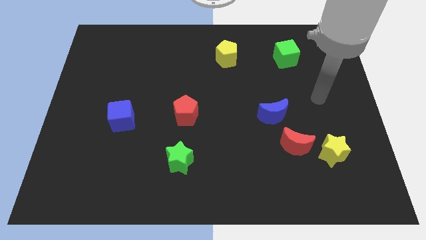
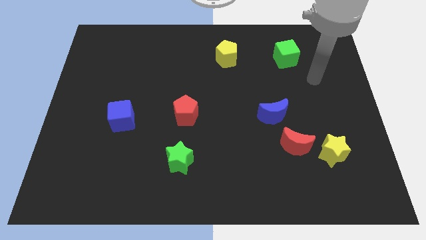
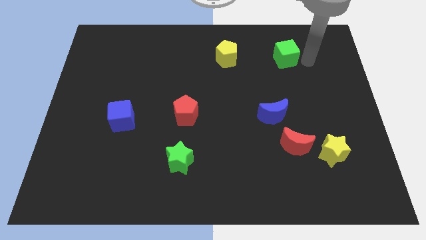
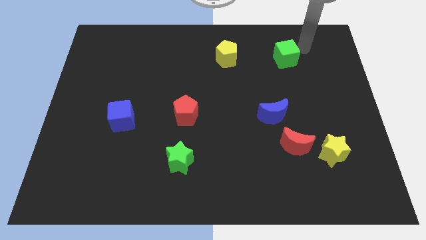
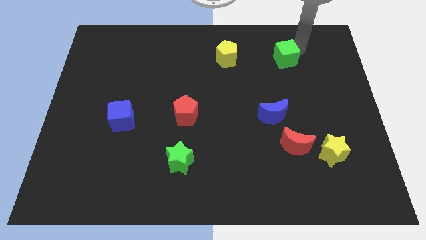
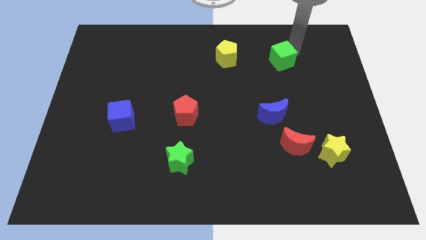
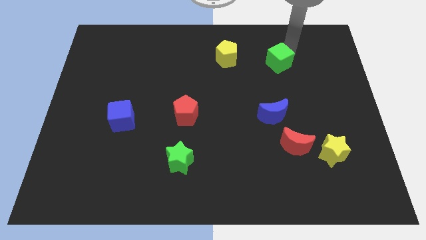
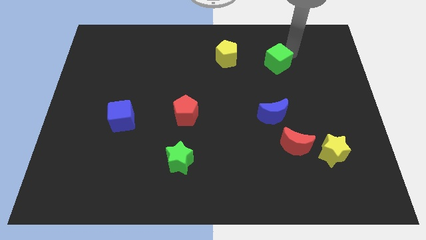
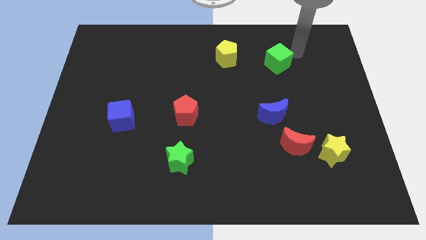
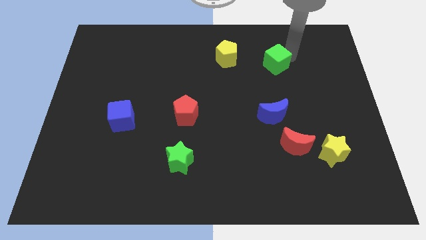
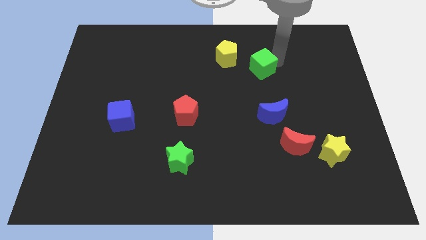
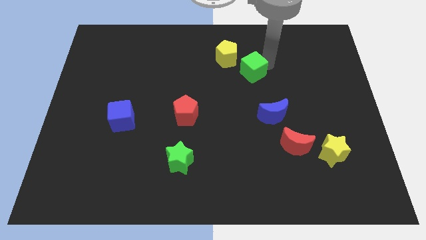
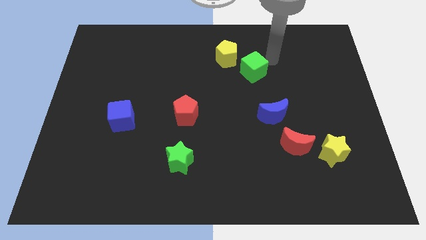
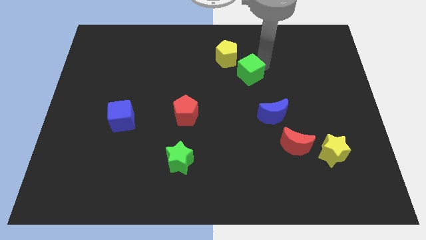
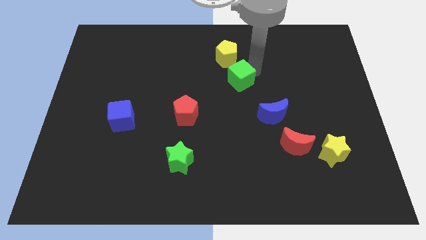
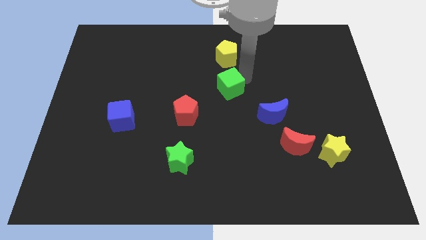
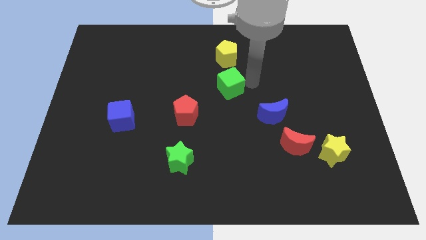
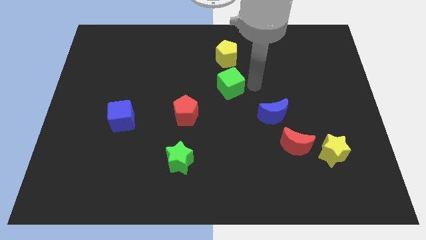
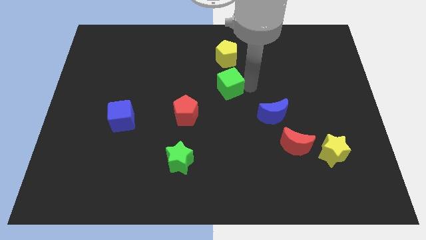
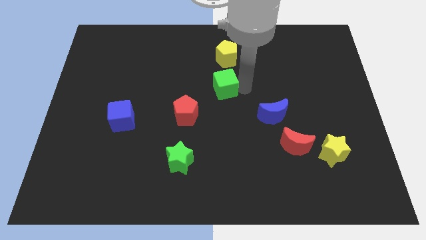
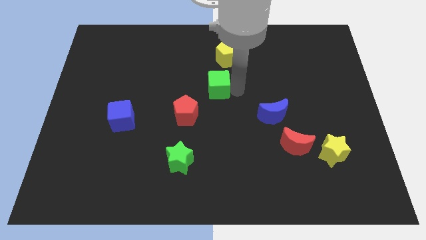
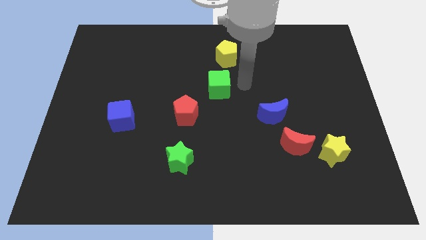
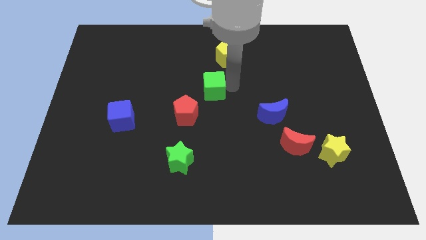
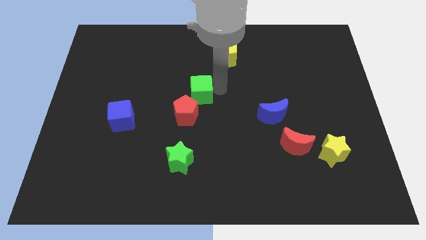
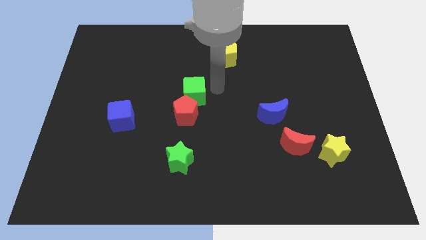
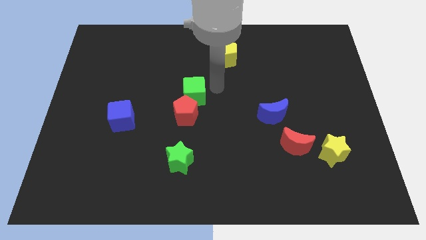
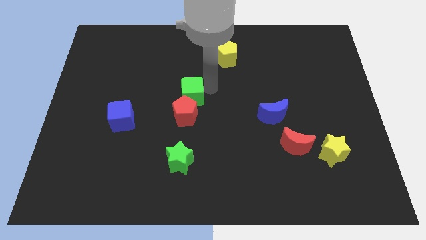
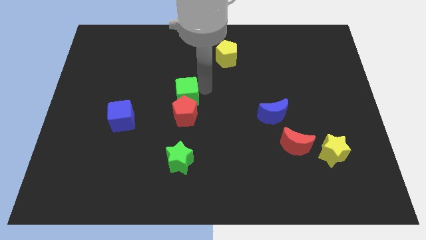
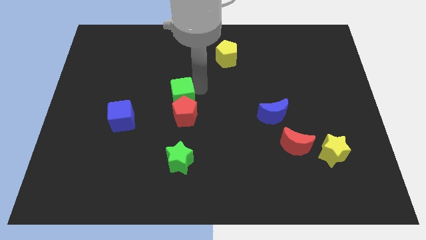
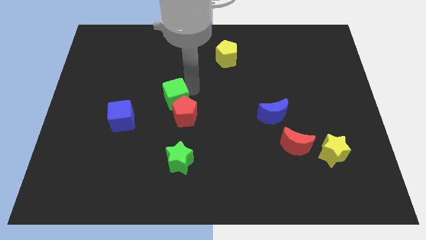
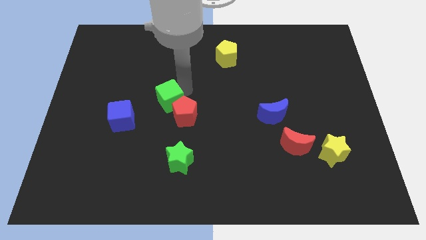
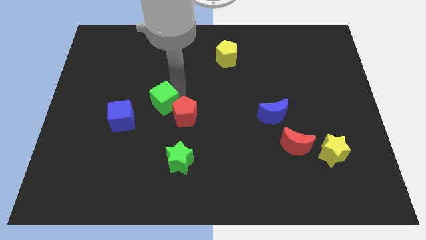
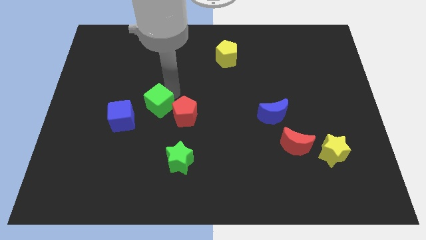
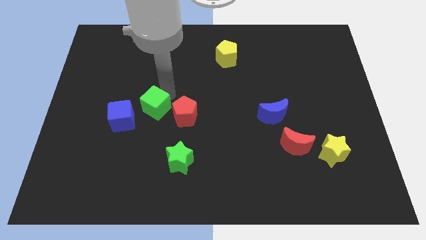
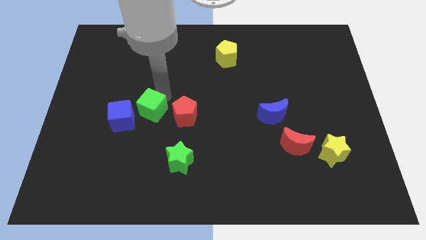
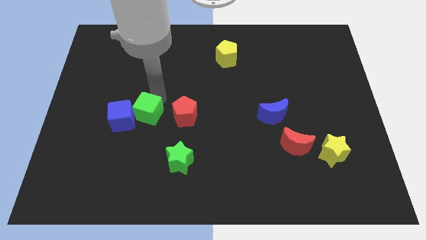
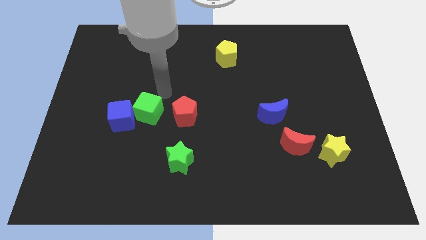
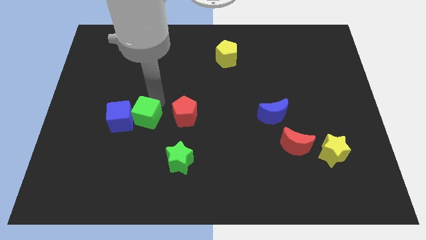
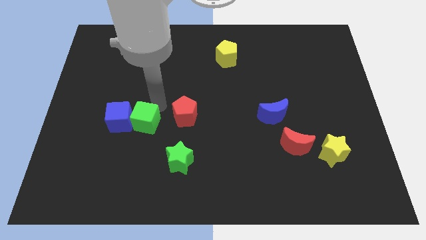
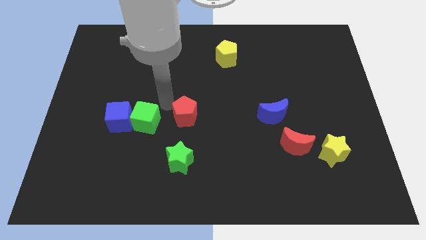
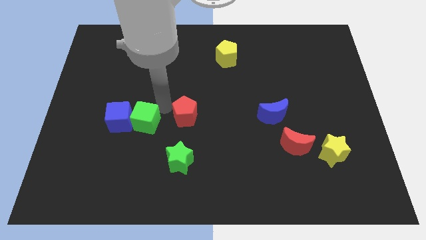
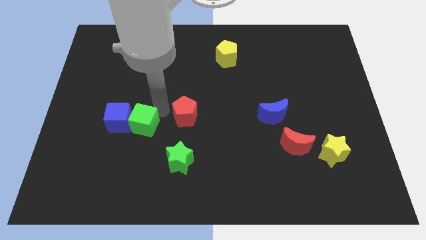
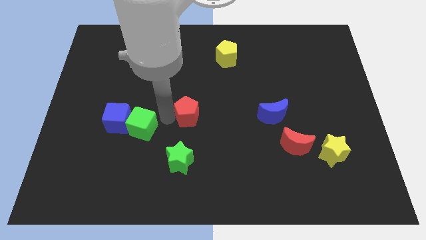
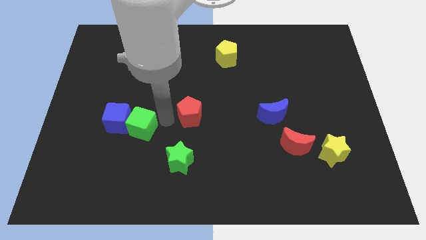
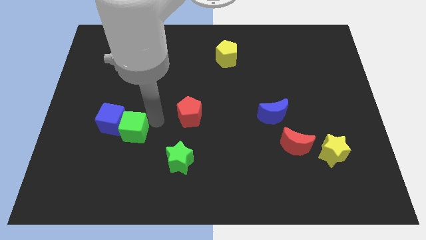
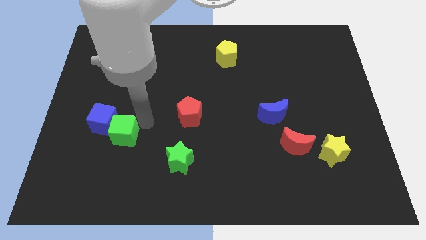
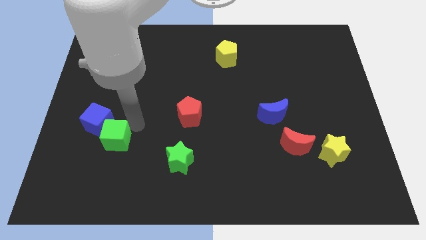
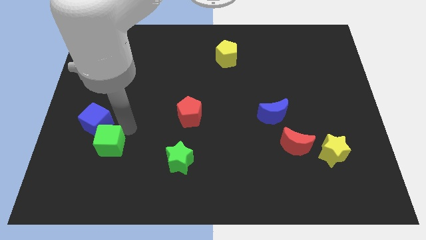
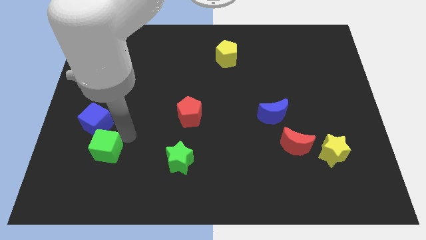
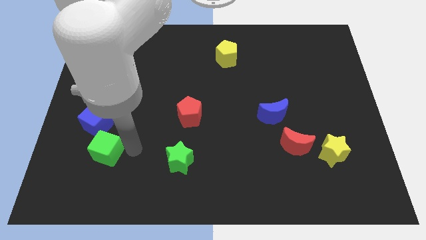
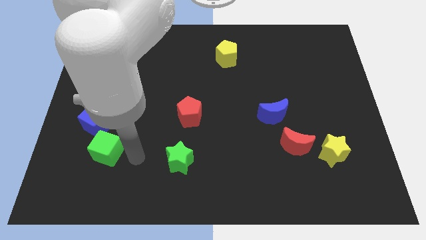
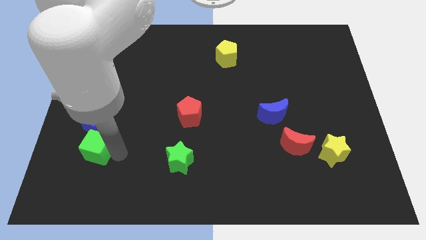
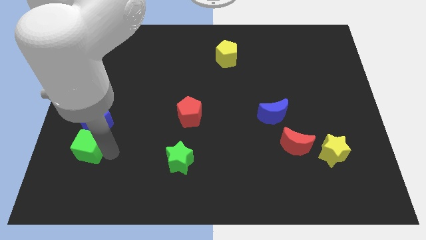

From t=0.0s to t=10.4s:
slide the green cube to the bottom left side of the blue cube

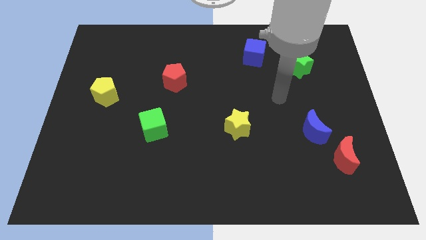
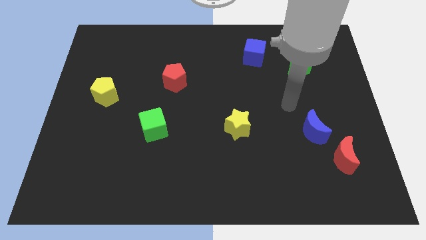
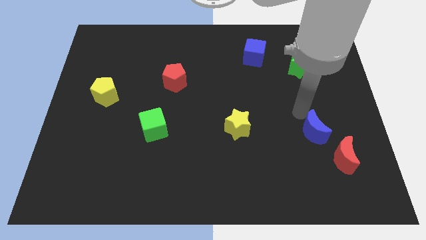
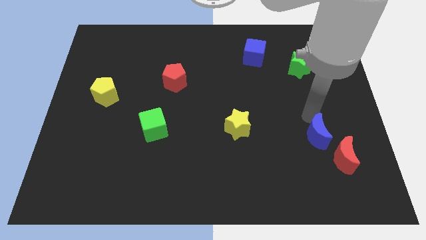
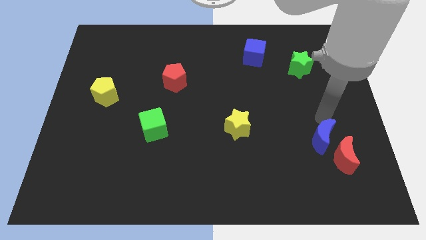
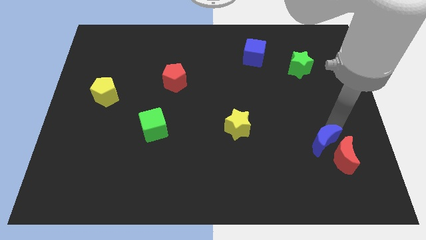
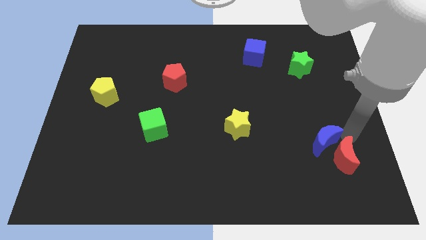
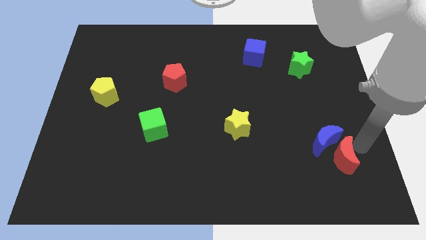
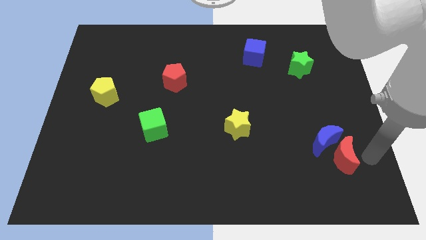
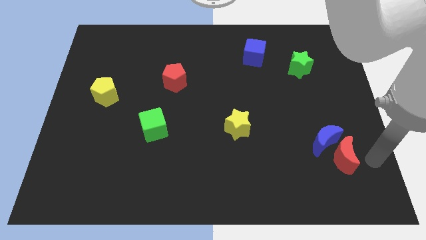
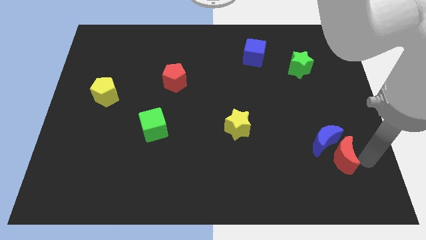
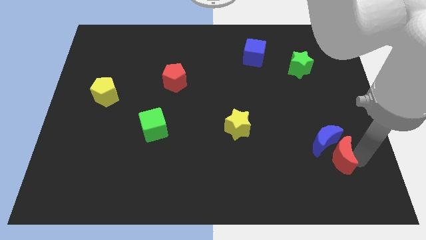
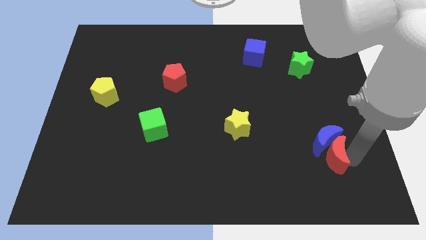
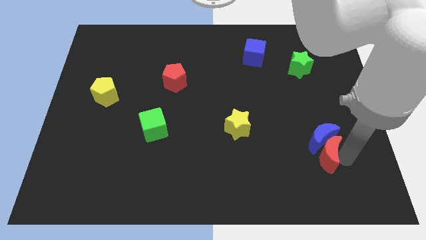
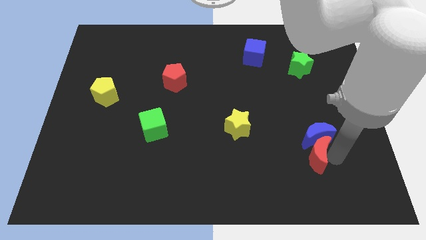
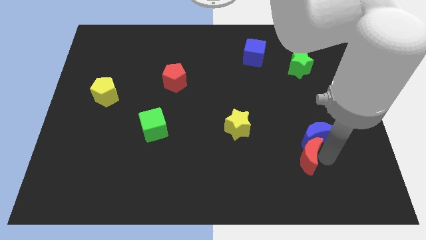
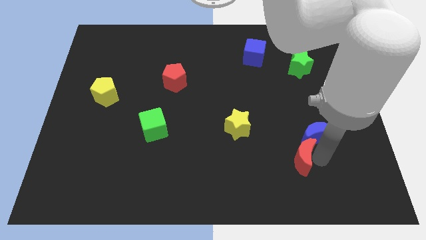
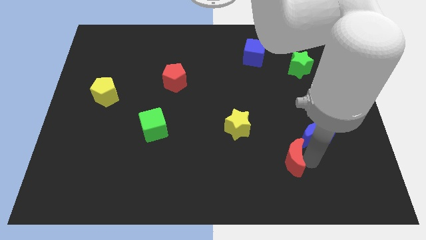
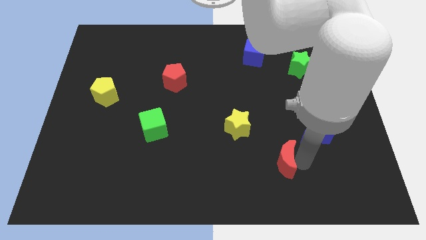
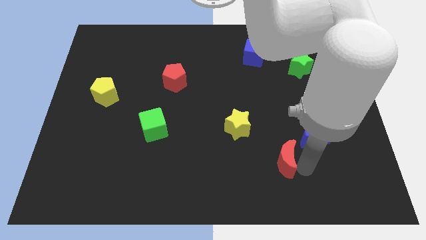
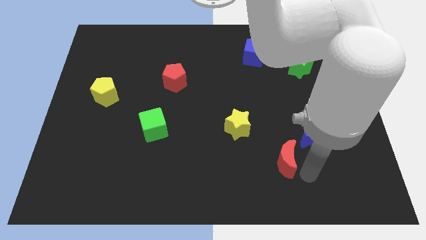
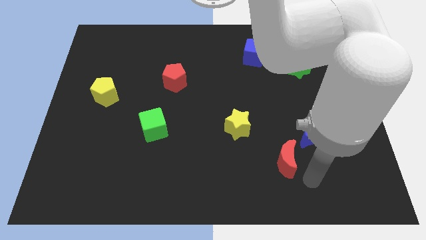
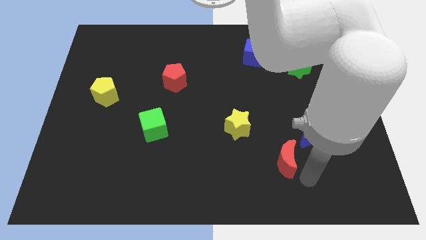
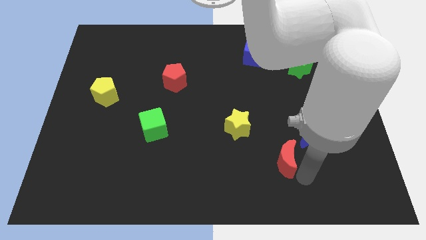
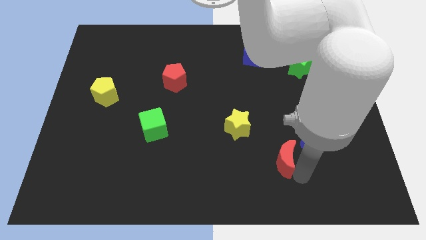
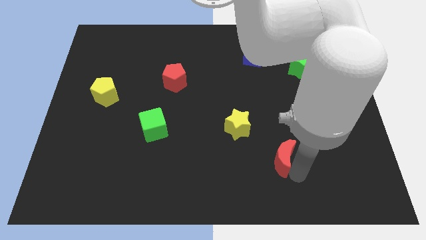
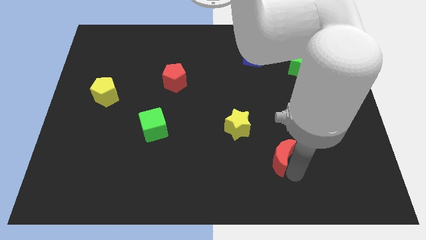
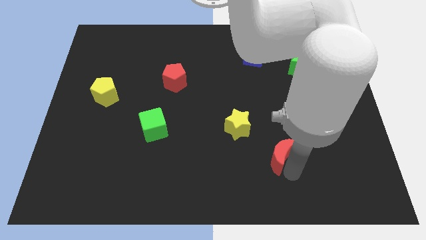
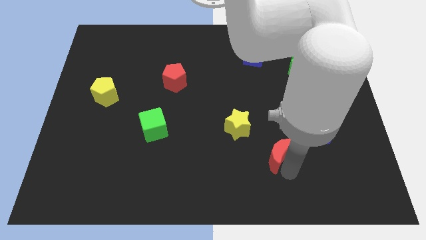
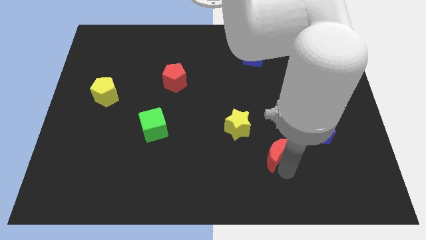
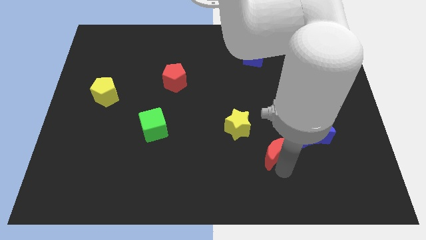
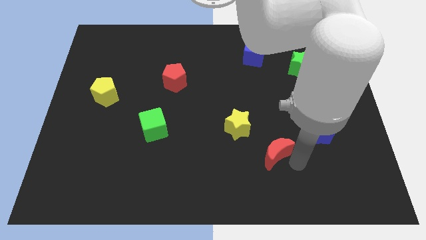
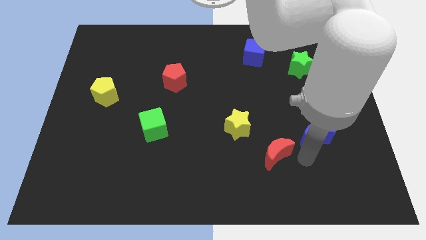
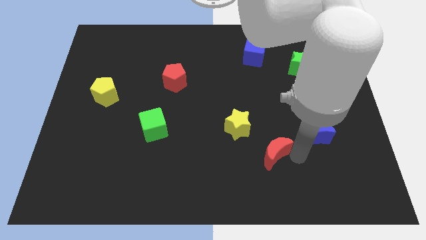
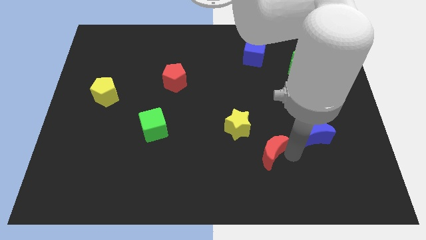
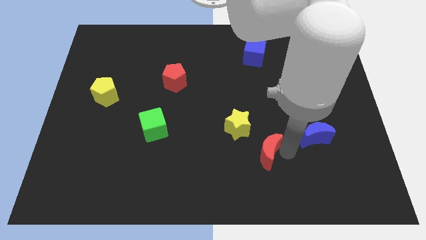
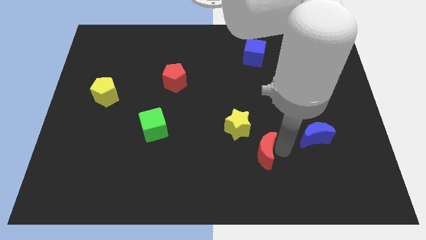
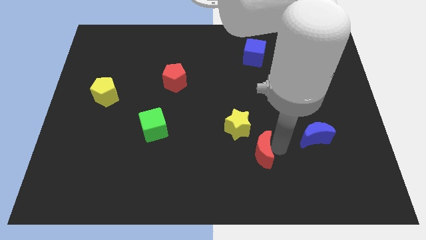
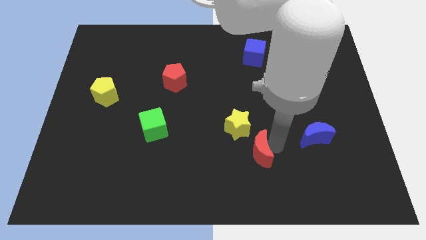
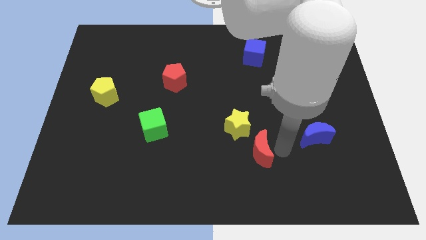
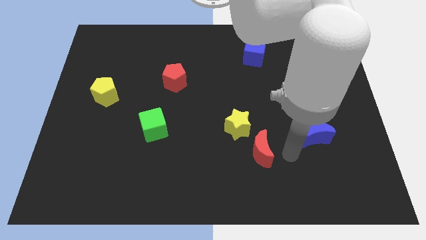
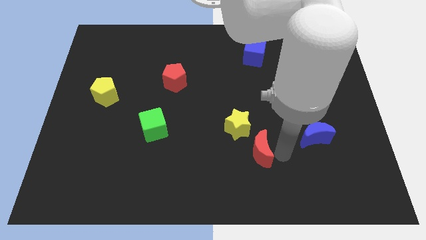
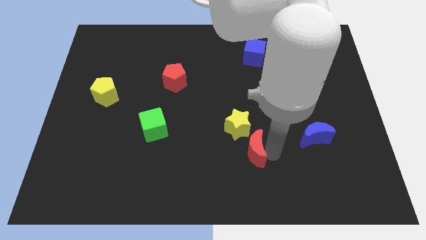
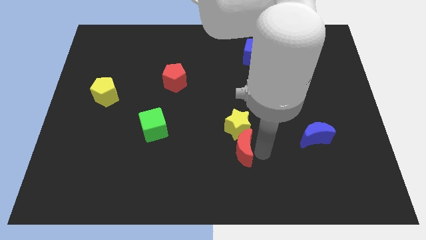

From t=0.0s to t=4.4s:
push the red moon to the bottom left side of the yellow star
